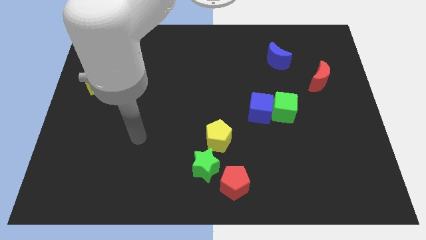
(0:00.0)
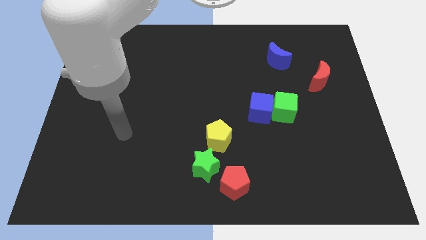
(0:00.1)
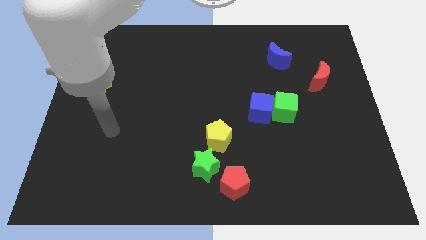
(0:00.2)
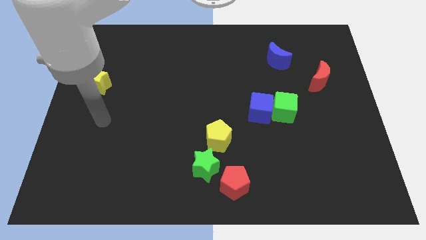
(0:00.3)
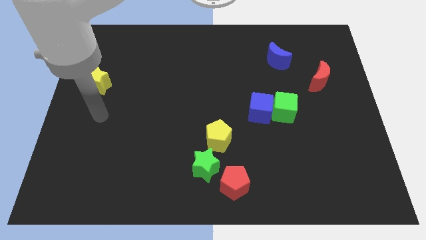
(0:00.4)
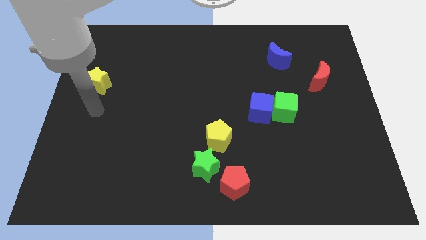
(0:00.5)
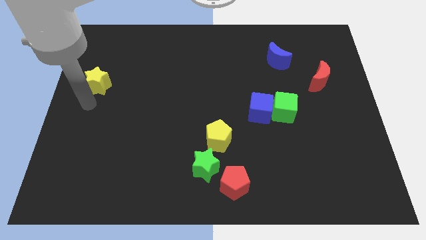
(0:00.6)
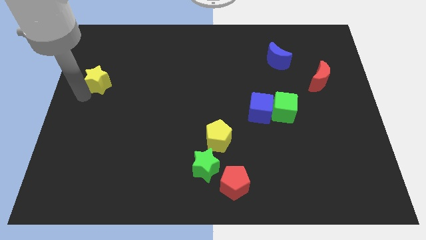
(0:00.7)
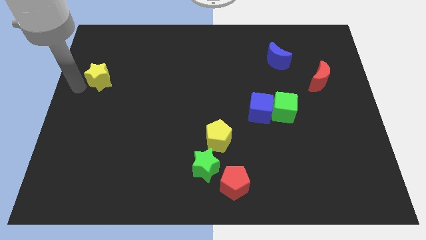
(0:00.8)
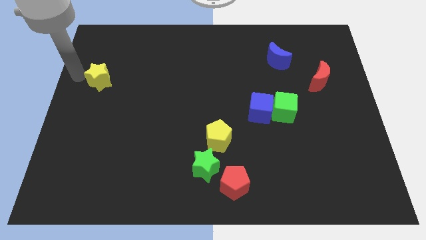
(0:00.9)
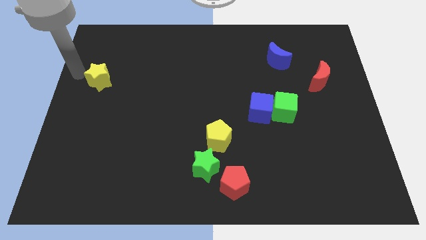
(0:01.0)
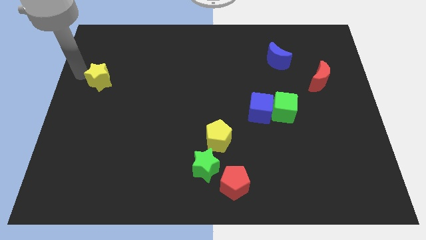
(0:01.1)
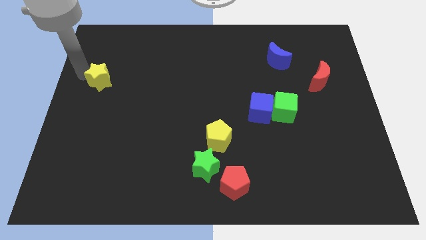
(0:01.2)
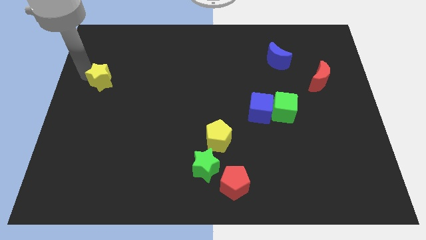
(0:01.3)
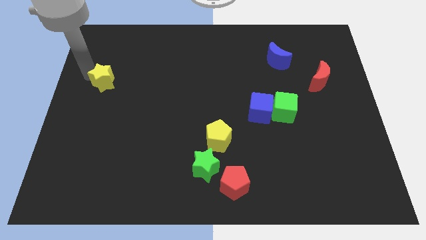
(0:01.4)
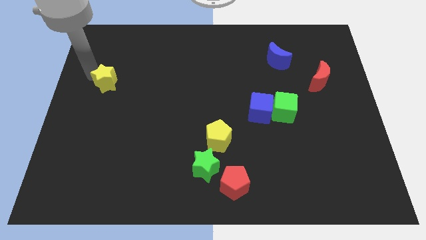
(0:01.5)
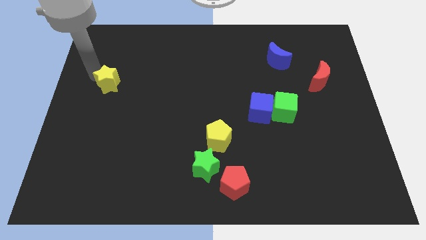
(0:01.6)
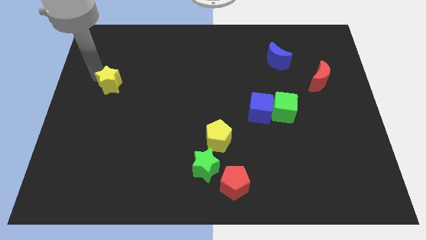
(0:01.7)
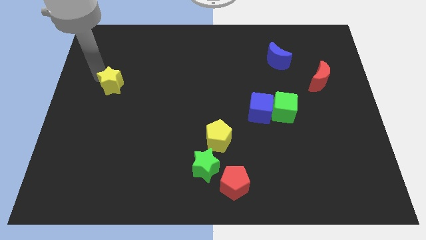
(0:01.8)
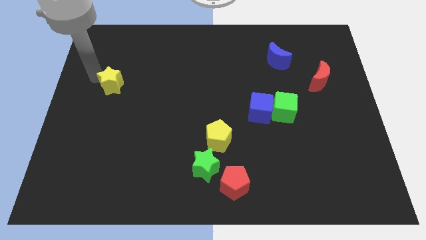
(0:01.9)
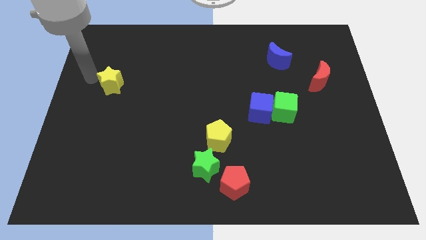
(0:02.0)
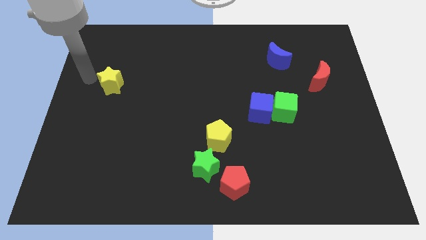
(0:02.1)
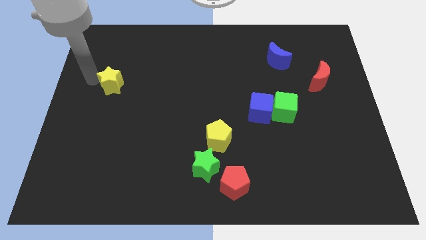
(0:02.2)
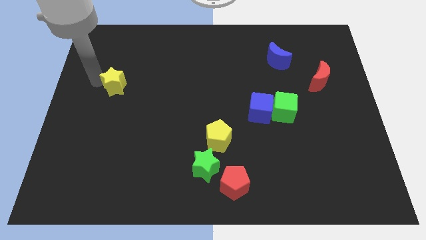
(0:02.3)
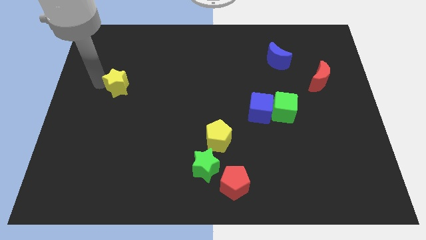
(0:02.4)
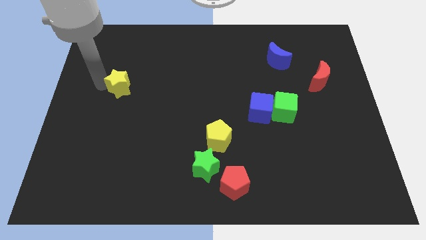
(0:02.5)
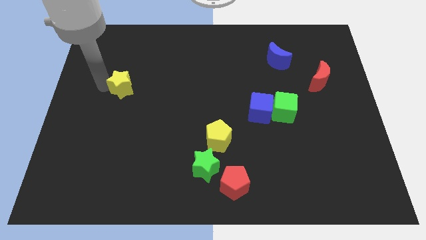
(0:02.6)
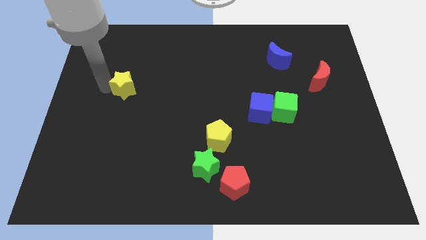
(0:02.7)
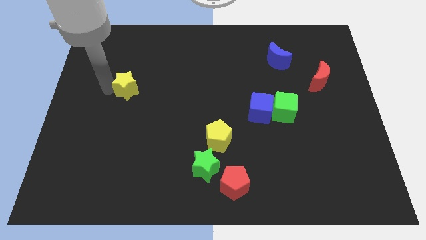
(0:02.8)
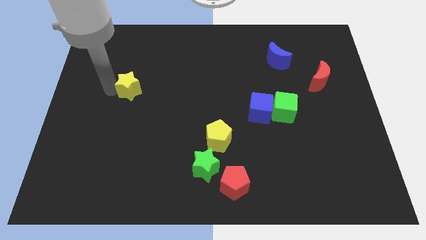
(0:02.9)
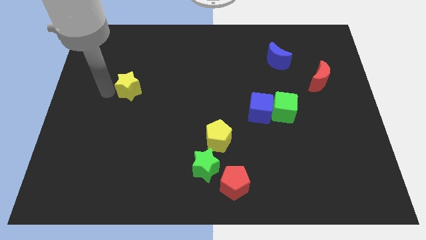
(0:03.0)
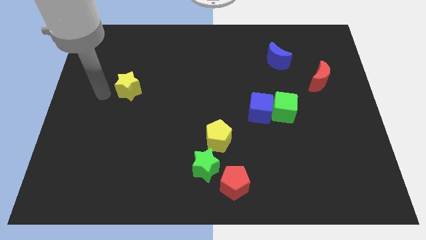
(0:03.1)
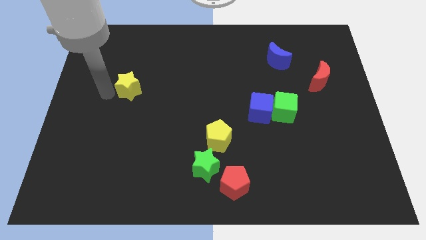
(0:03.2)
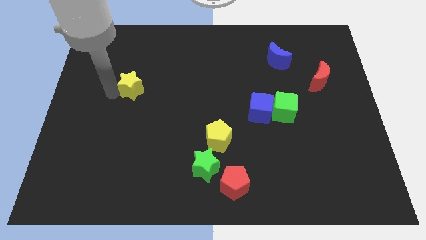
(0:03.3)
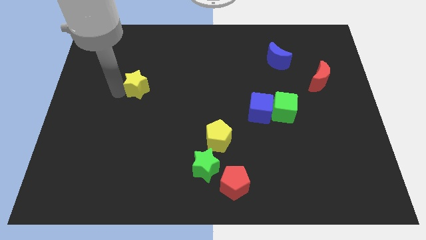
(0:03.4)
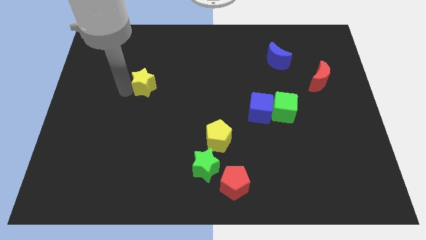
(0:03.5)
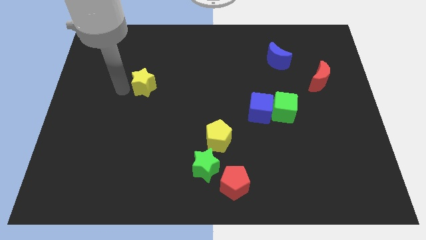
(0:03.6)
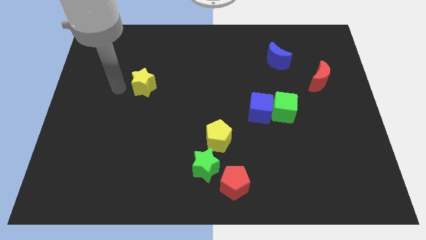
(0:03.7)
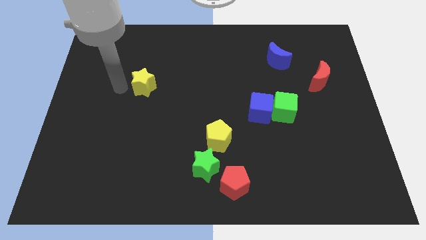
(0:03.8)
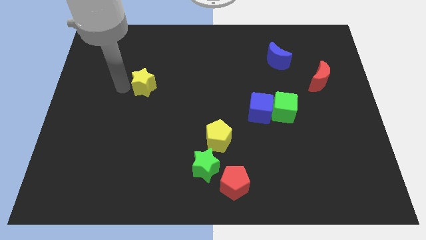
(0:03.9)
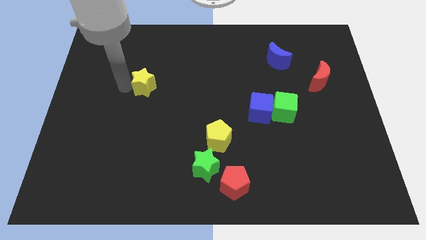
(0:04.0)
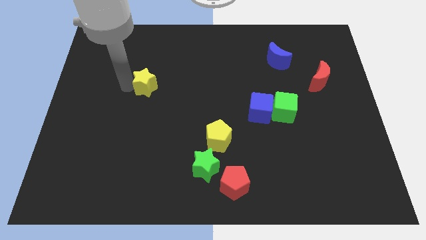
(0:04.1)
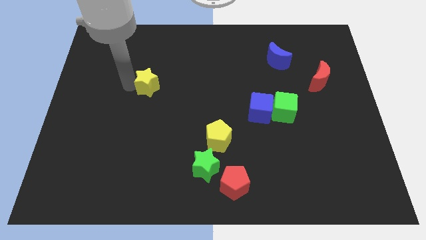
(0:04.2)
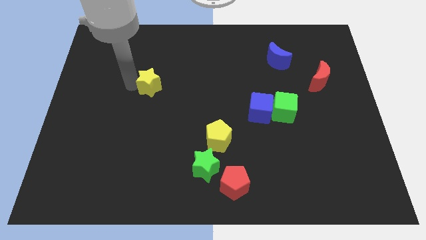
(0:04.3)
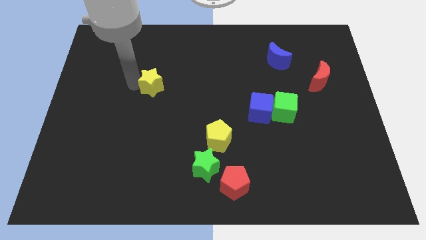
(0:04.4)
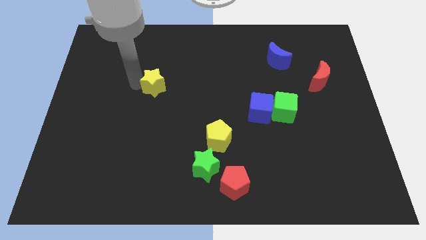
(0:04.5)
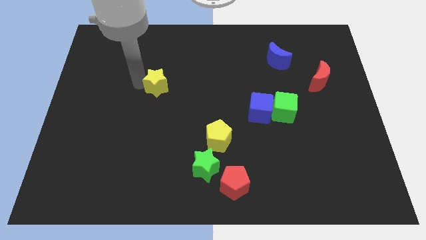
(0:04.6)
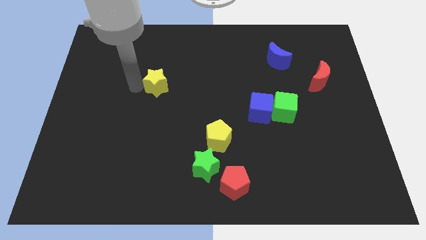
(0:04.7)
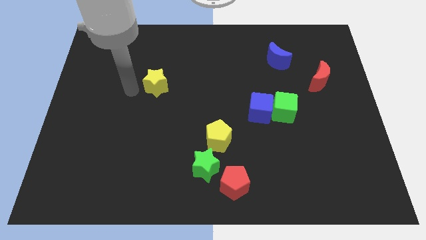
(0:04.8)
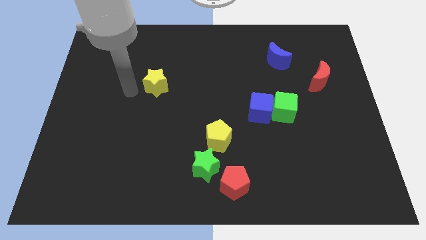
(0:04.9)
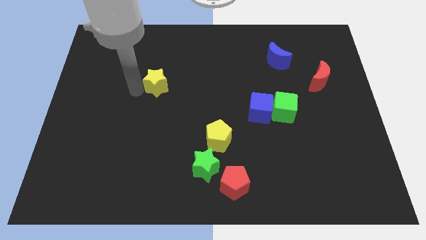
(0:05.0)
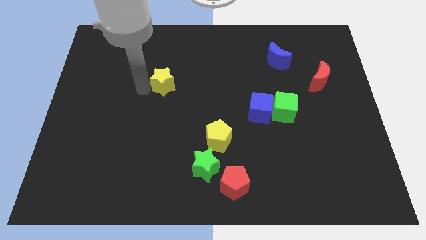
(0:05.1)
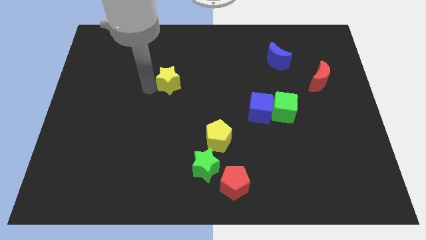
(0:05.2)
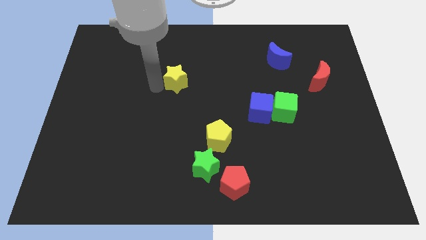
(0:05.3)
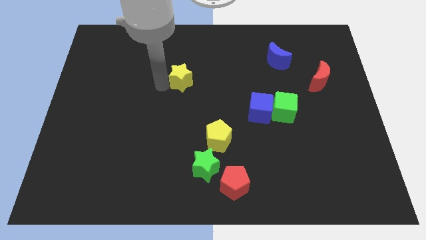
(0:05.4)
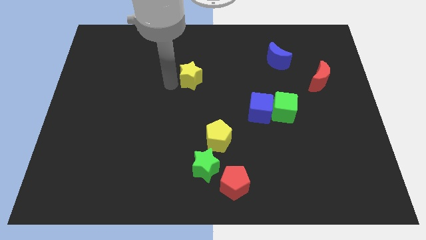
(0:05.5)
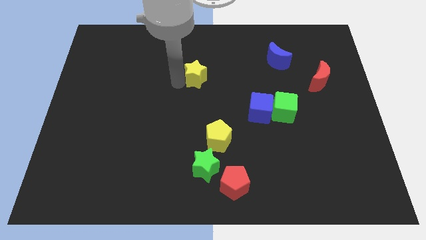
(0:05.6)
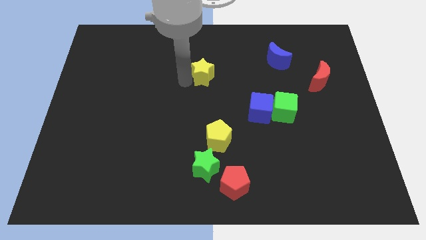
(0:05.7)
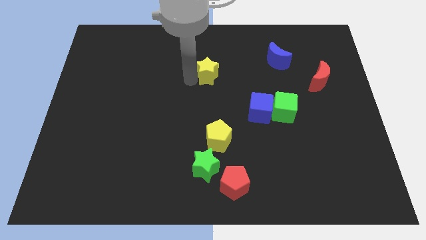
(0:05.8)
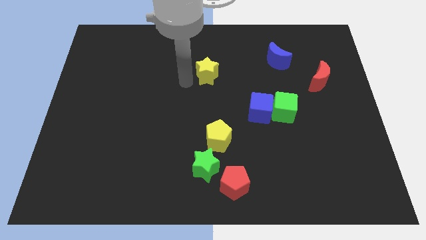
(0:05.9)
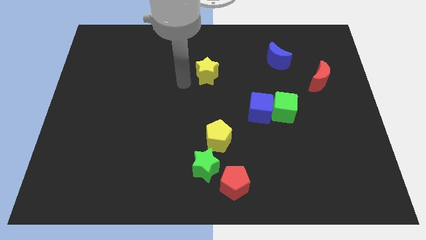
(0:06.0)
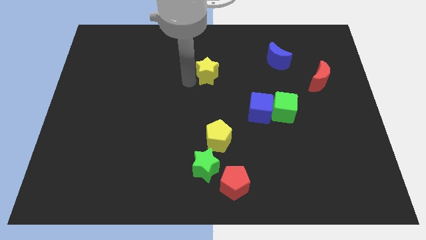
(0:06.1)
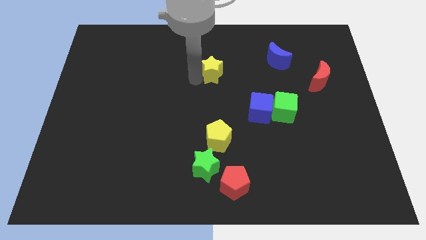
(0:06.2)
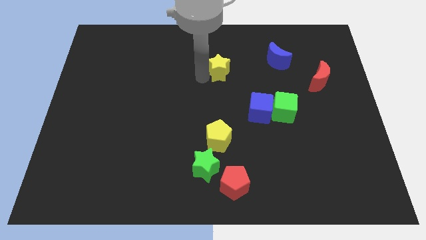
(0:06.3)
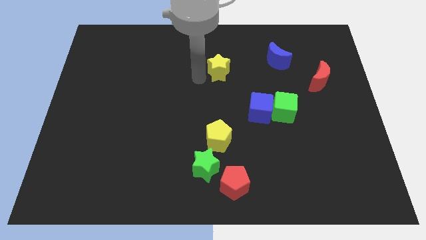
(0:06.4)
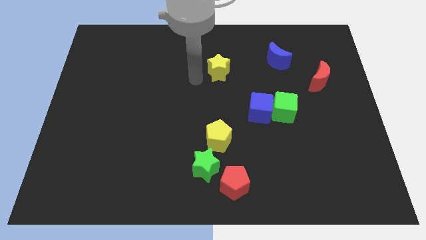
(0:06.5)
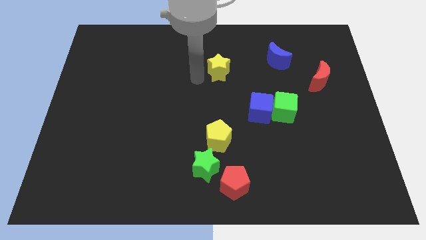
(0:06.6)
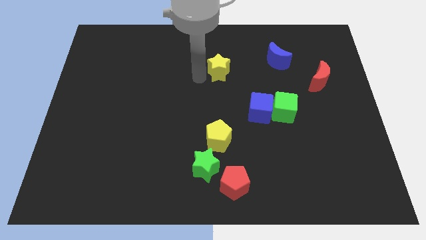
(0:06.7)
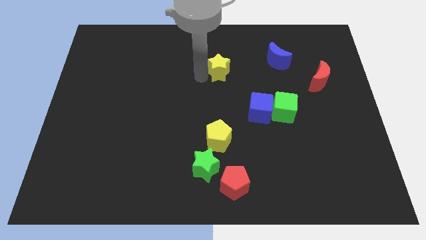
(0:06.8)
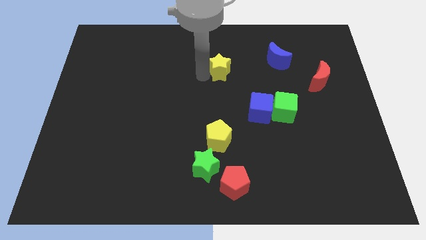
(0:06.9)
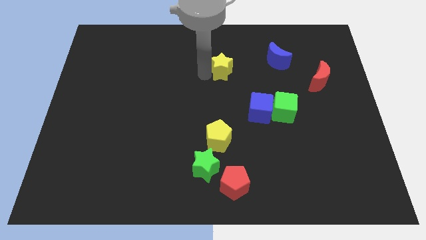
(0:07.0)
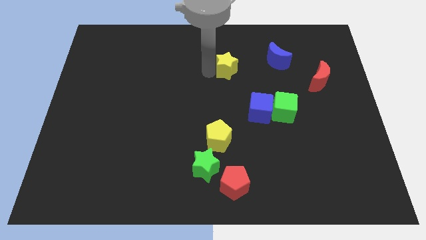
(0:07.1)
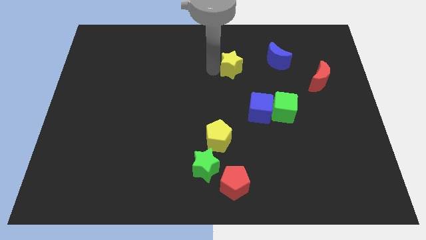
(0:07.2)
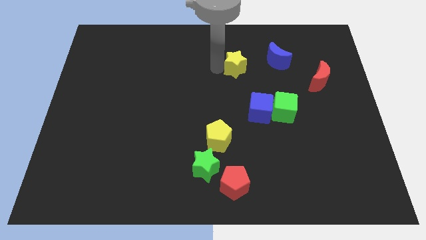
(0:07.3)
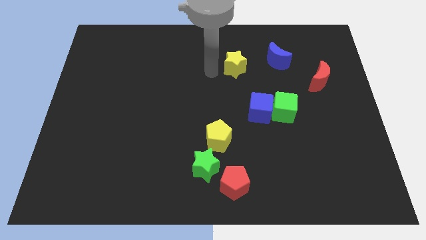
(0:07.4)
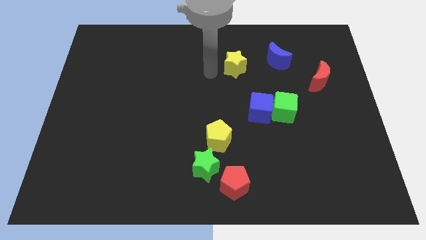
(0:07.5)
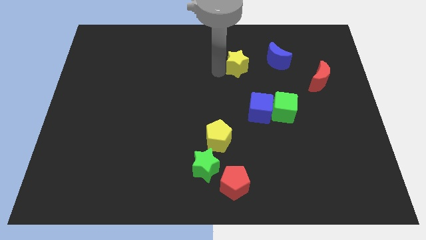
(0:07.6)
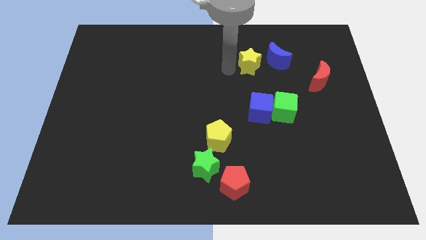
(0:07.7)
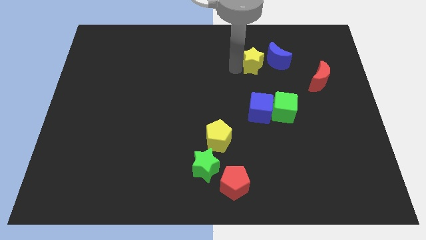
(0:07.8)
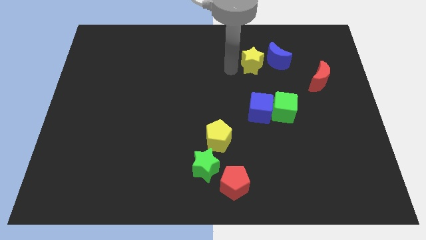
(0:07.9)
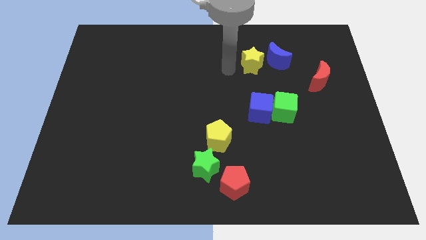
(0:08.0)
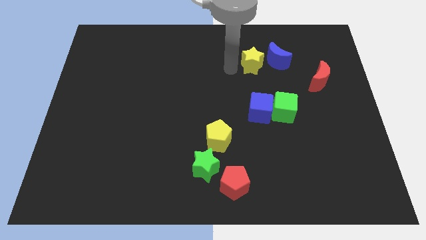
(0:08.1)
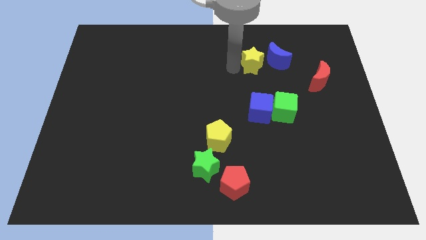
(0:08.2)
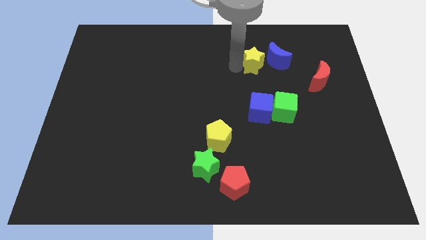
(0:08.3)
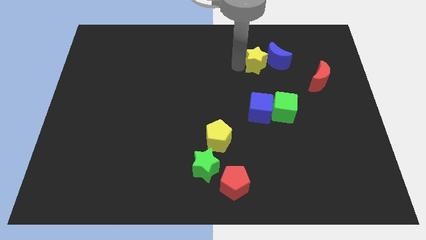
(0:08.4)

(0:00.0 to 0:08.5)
push the yellow star towards the blue moon
